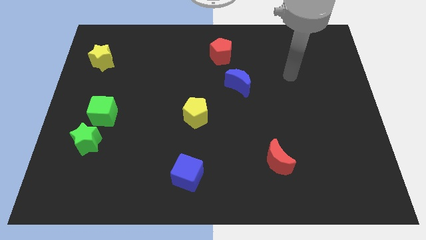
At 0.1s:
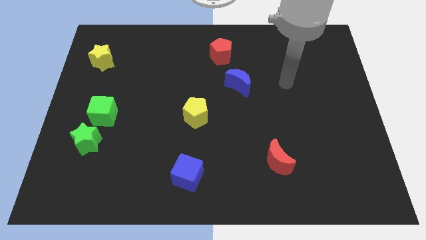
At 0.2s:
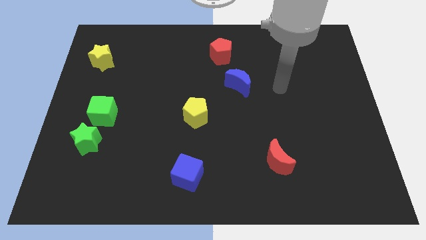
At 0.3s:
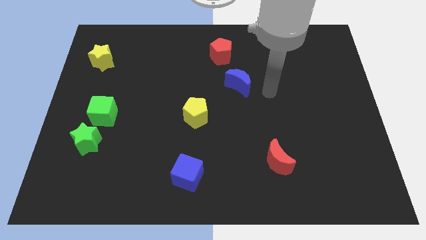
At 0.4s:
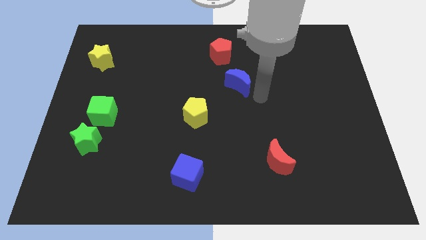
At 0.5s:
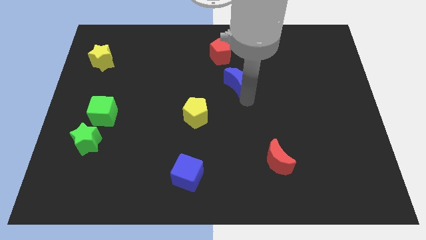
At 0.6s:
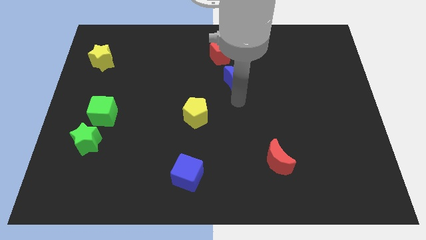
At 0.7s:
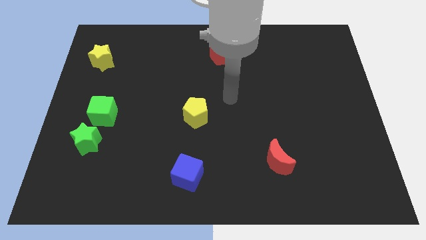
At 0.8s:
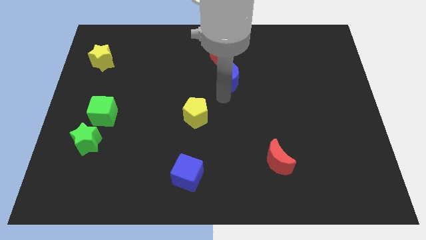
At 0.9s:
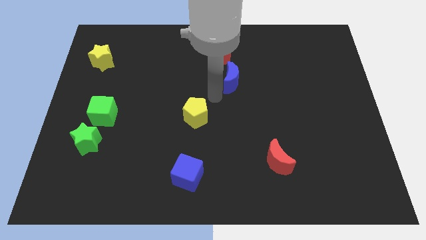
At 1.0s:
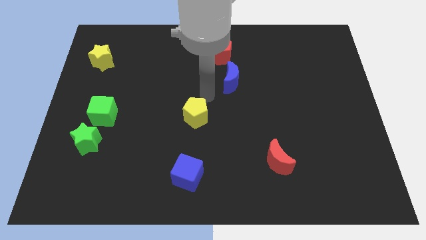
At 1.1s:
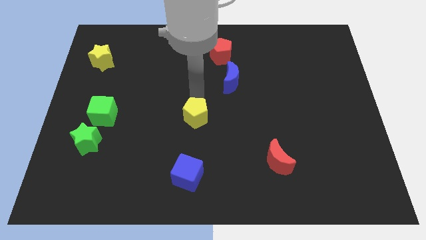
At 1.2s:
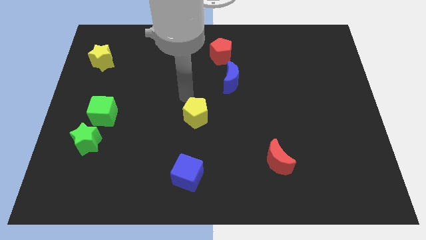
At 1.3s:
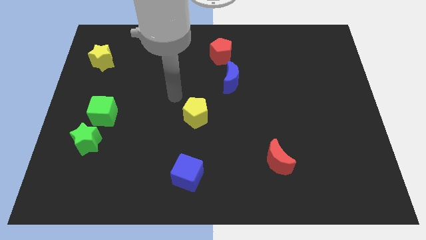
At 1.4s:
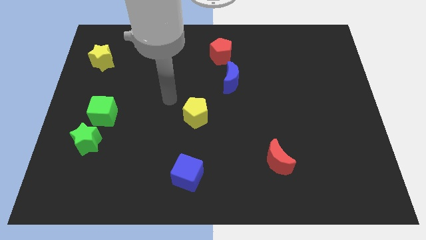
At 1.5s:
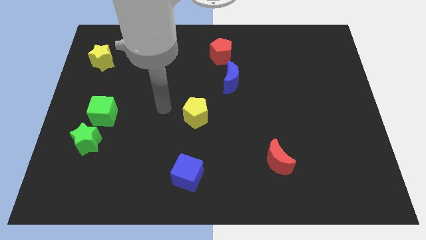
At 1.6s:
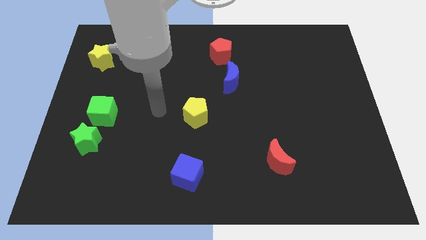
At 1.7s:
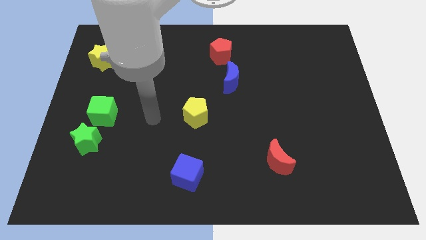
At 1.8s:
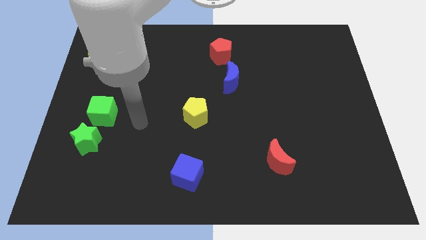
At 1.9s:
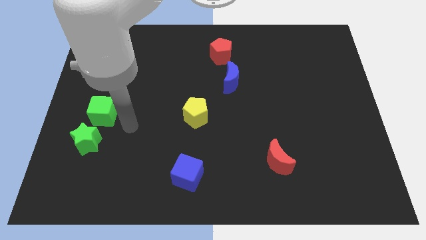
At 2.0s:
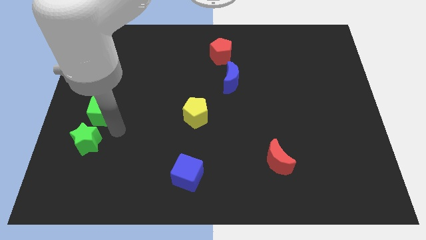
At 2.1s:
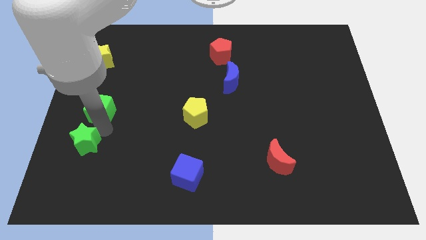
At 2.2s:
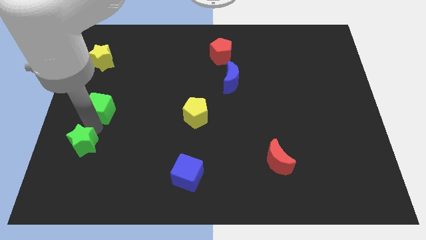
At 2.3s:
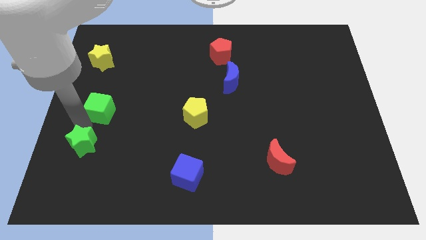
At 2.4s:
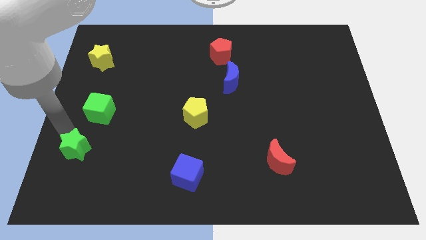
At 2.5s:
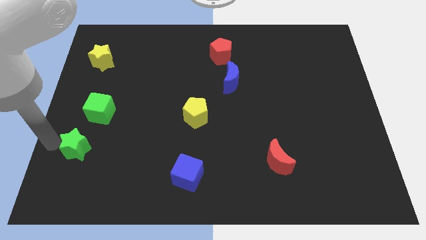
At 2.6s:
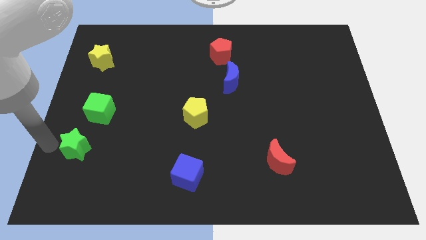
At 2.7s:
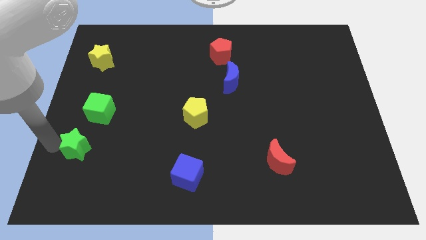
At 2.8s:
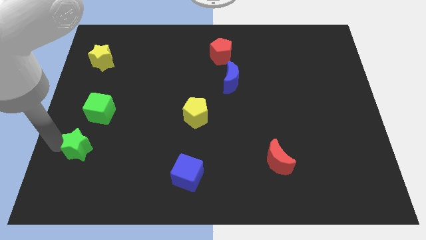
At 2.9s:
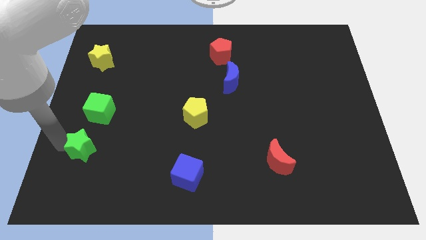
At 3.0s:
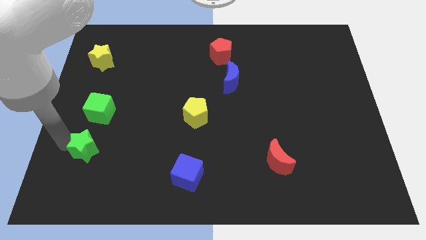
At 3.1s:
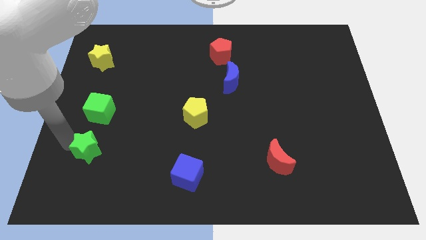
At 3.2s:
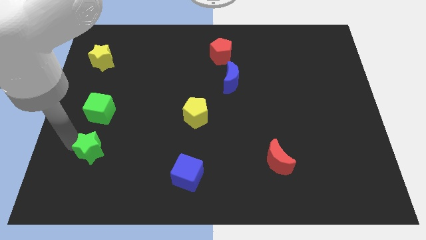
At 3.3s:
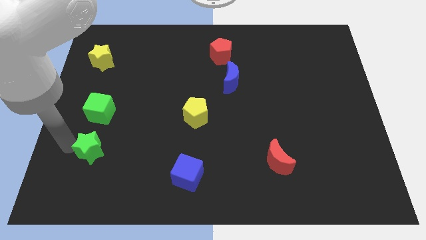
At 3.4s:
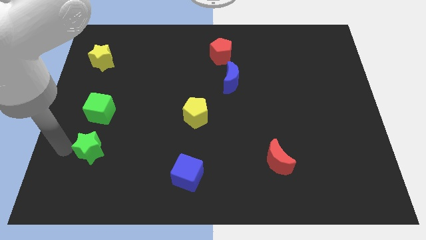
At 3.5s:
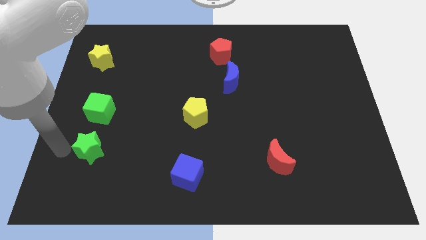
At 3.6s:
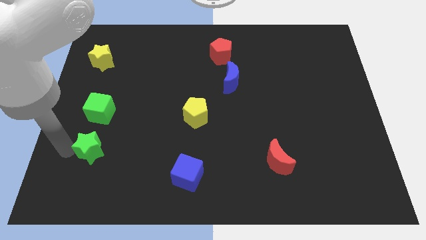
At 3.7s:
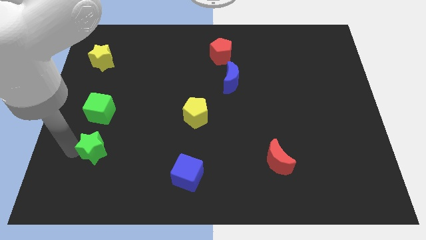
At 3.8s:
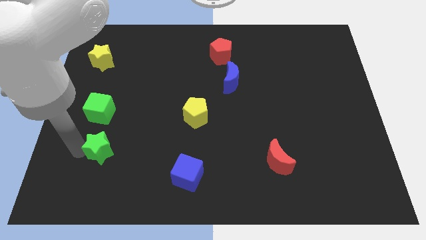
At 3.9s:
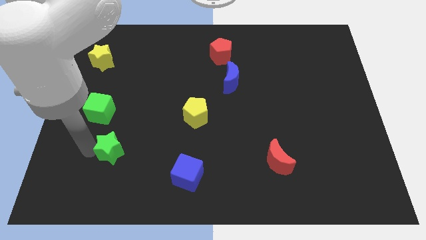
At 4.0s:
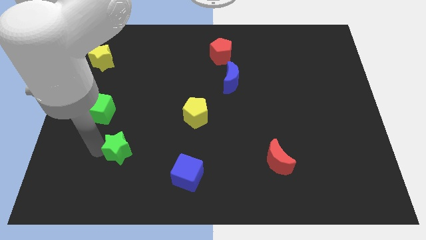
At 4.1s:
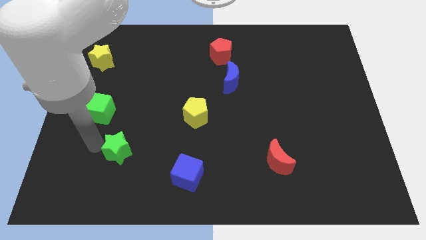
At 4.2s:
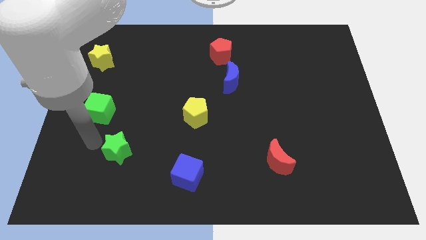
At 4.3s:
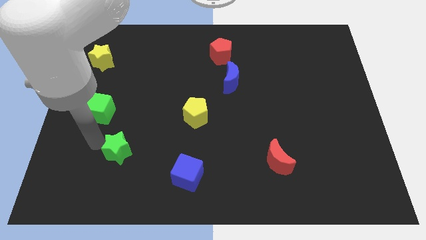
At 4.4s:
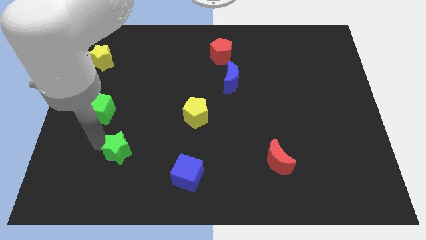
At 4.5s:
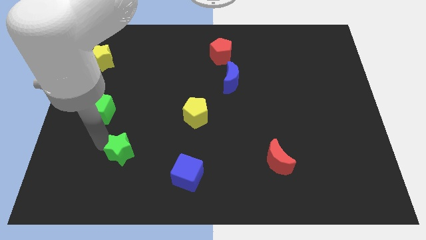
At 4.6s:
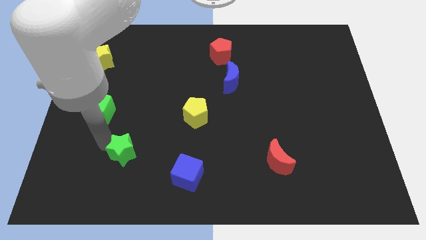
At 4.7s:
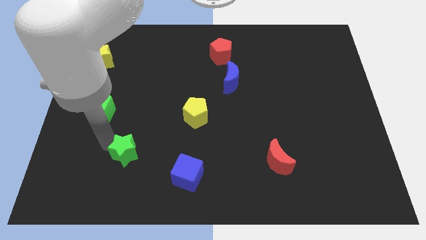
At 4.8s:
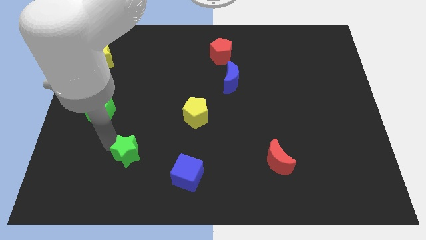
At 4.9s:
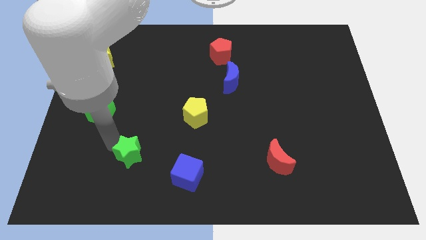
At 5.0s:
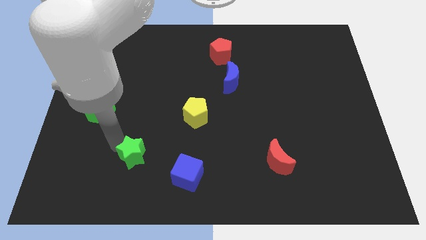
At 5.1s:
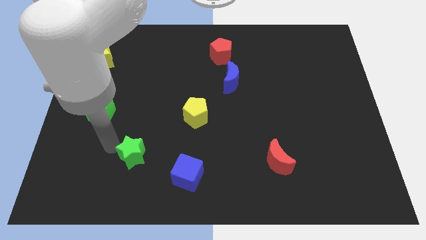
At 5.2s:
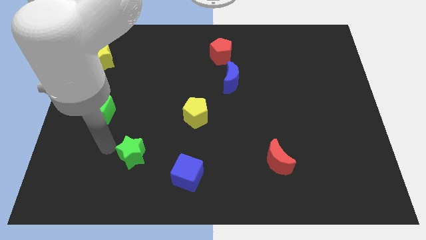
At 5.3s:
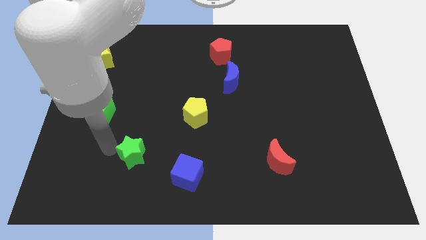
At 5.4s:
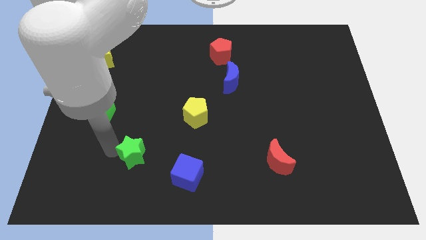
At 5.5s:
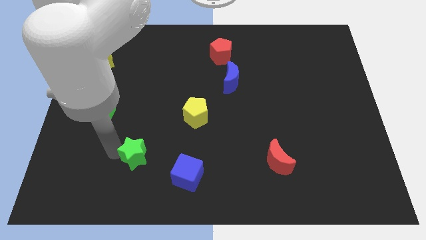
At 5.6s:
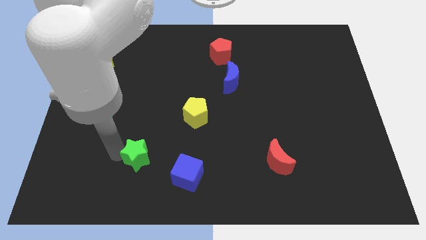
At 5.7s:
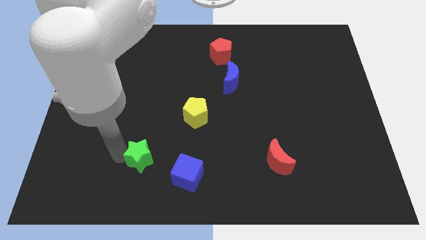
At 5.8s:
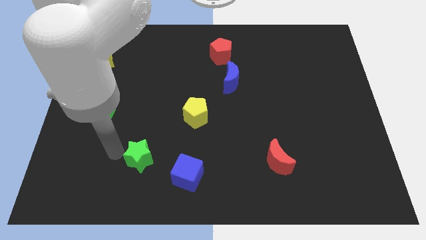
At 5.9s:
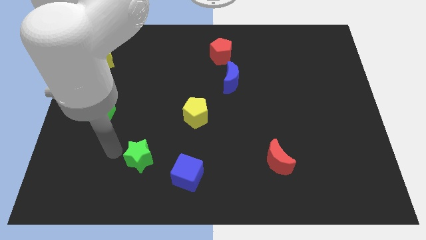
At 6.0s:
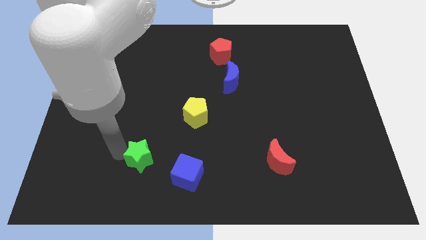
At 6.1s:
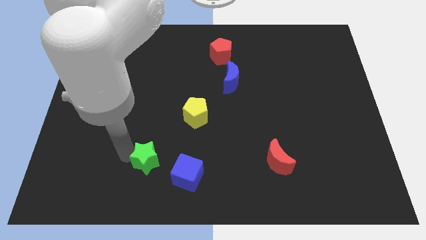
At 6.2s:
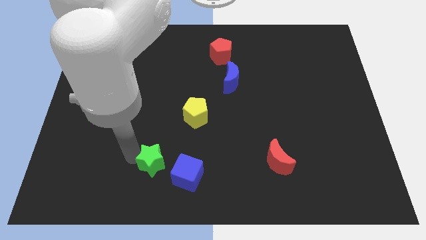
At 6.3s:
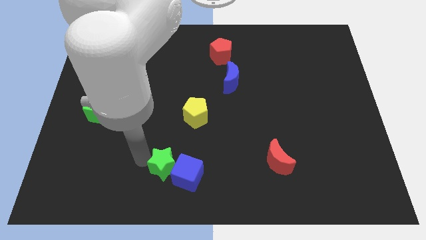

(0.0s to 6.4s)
put the green star close to the blue cube

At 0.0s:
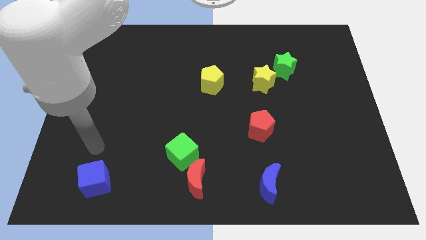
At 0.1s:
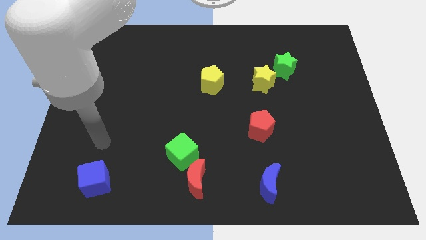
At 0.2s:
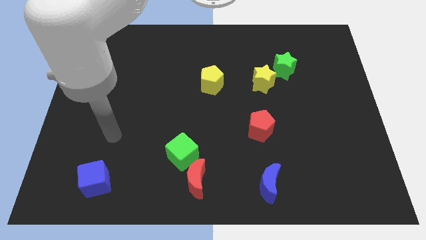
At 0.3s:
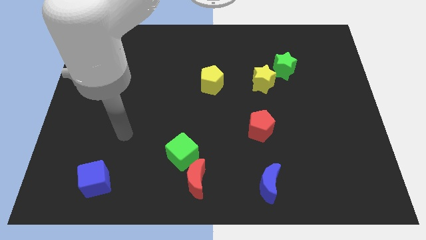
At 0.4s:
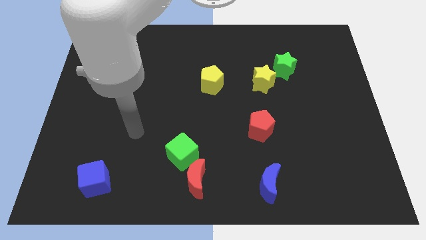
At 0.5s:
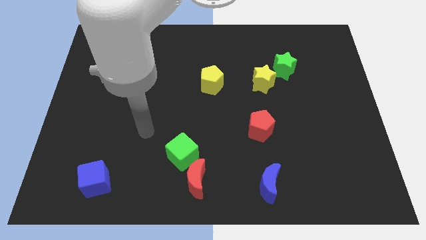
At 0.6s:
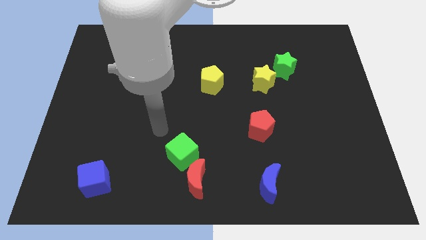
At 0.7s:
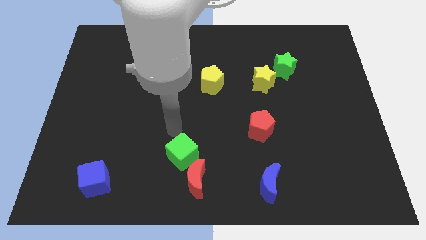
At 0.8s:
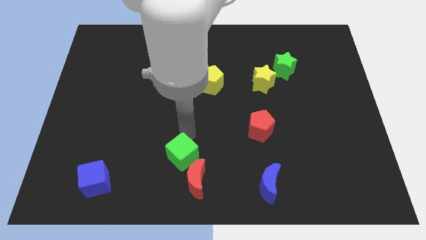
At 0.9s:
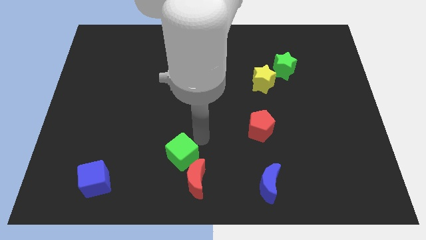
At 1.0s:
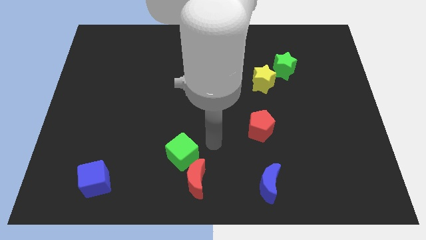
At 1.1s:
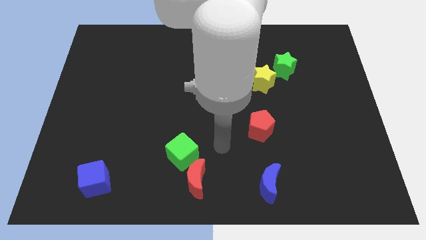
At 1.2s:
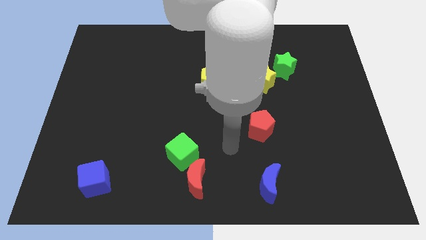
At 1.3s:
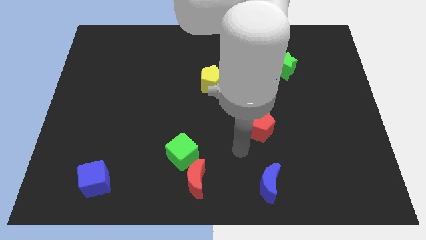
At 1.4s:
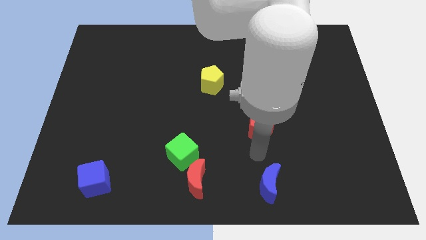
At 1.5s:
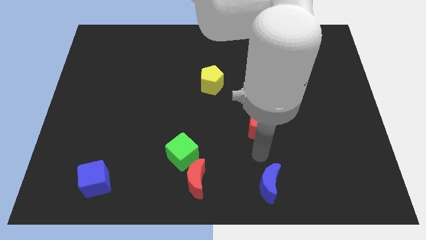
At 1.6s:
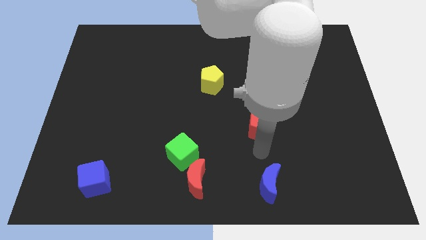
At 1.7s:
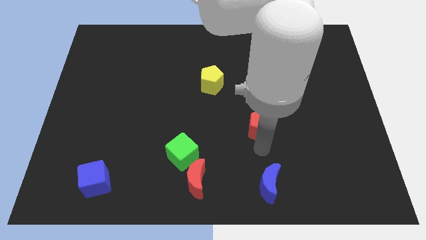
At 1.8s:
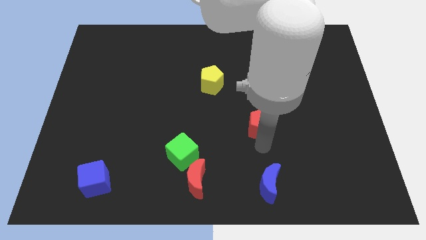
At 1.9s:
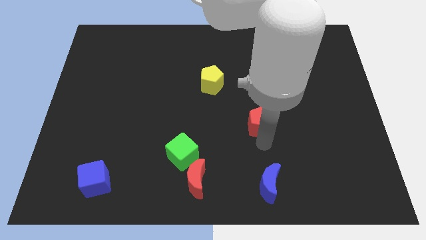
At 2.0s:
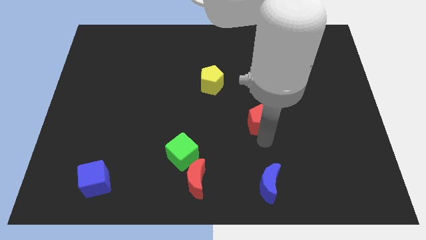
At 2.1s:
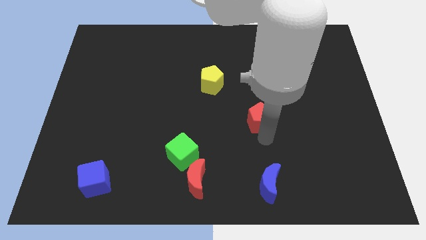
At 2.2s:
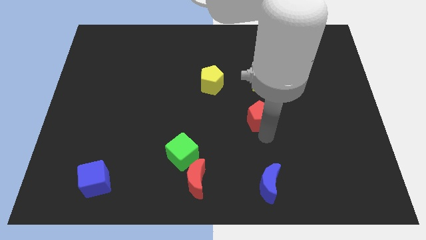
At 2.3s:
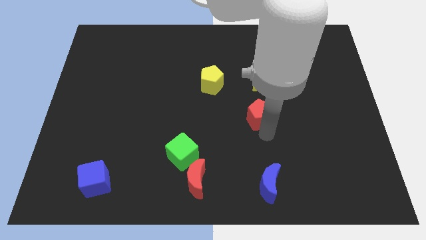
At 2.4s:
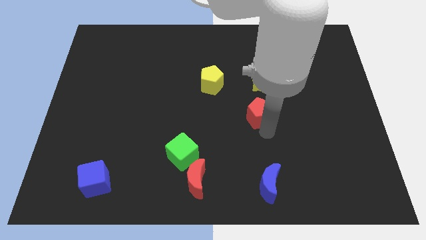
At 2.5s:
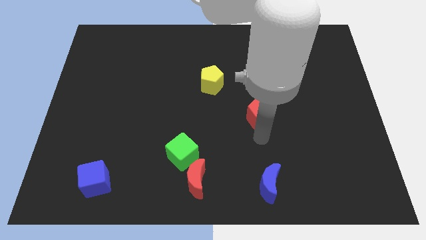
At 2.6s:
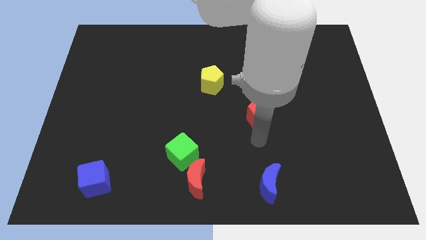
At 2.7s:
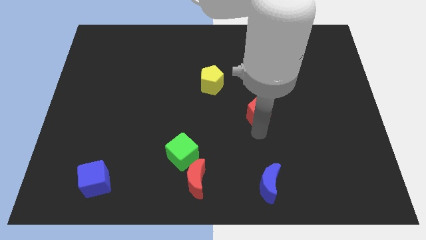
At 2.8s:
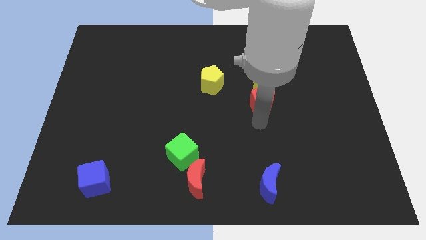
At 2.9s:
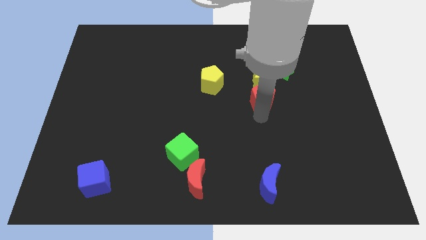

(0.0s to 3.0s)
put the red pentagon close to the yellow star
